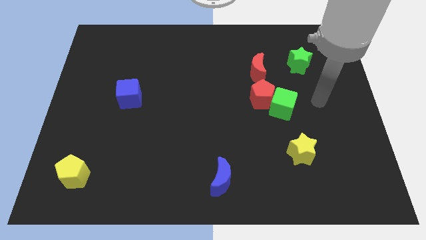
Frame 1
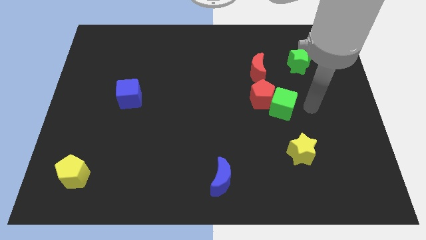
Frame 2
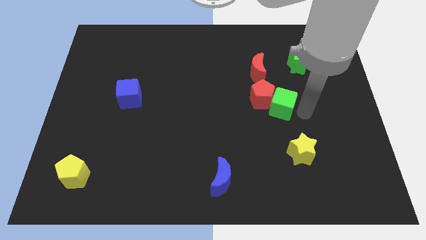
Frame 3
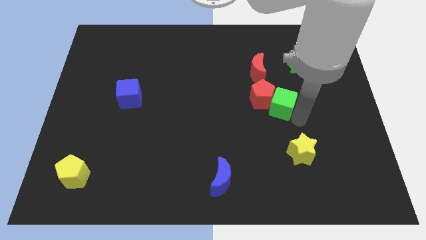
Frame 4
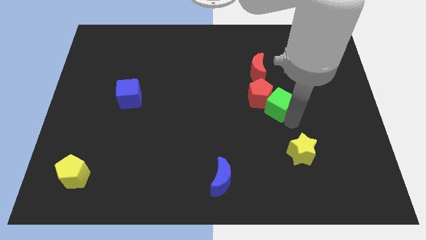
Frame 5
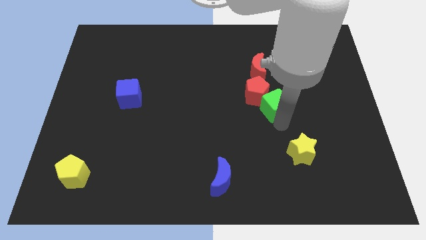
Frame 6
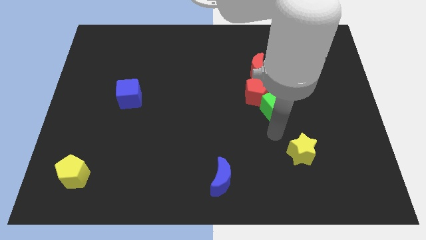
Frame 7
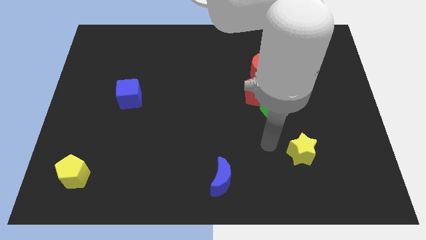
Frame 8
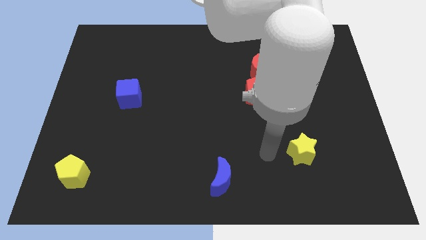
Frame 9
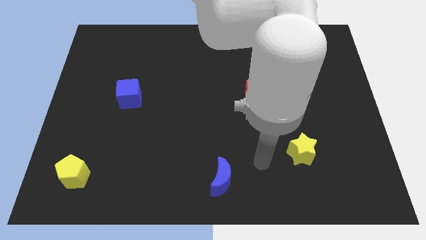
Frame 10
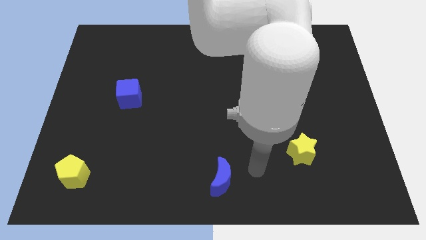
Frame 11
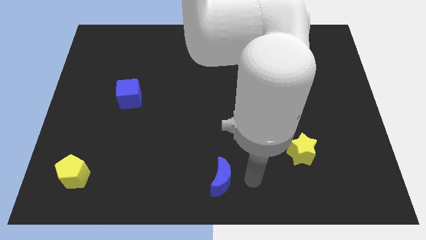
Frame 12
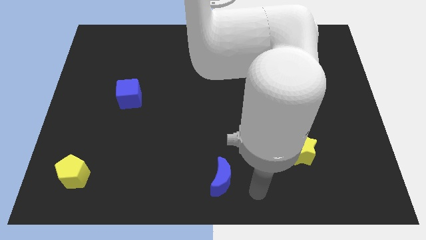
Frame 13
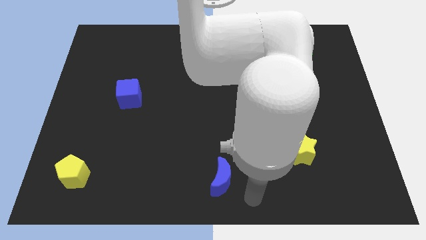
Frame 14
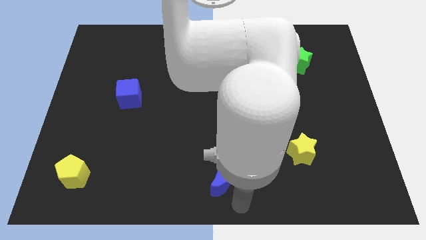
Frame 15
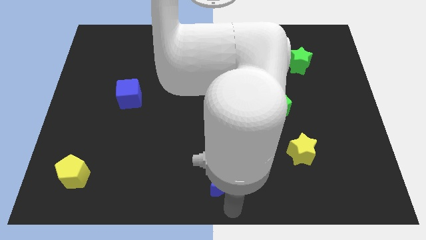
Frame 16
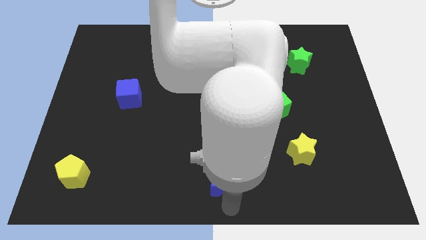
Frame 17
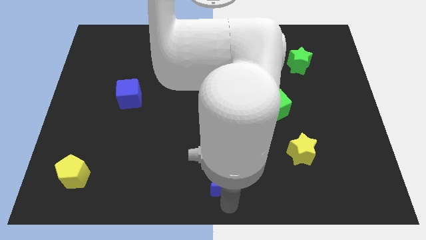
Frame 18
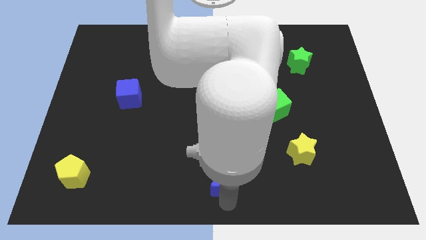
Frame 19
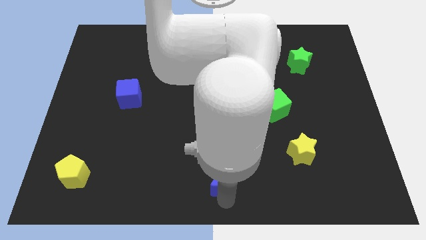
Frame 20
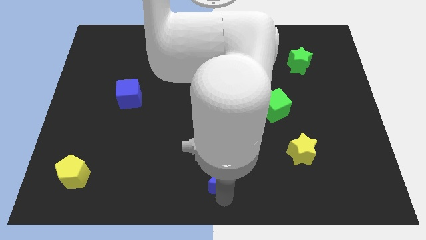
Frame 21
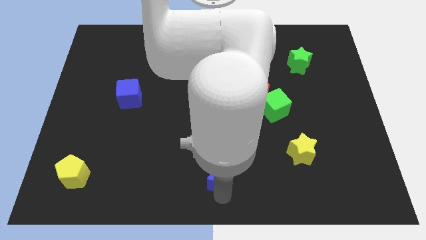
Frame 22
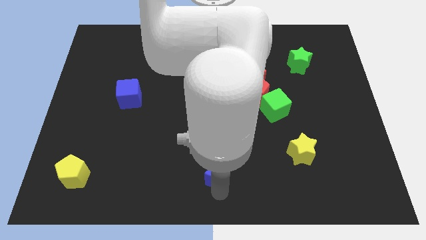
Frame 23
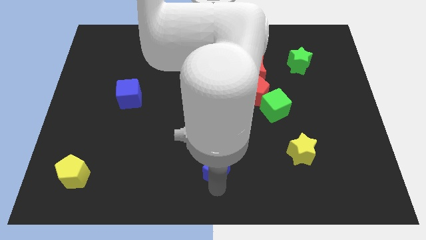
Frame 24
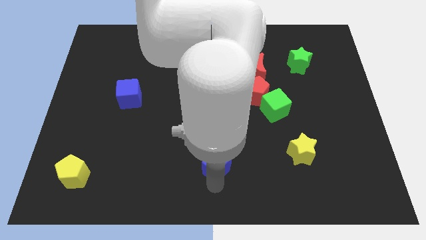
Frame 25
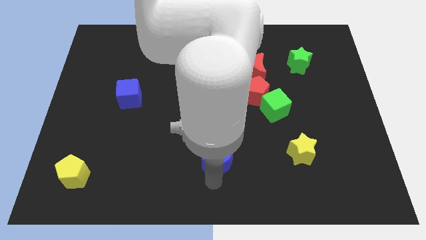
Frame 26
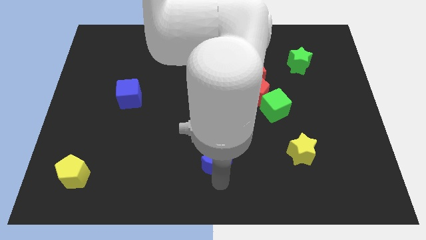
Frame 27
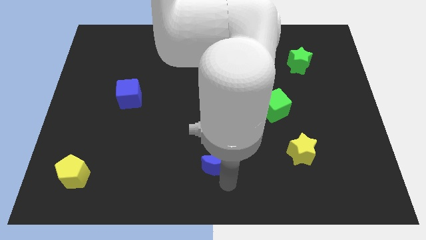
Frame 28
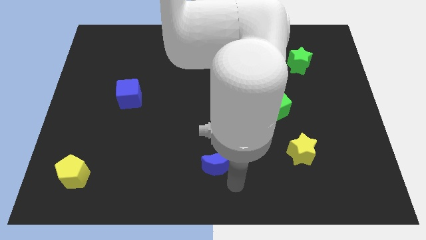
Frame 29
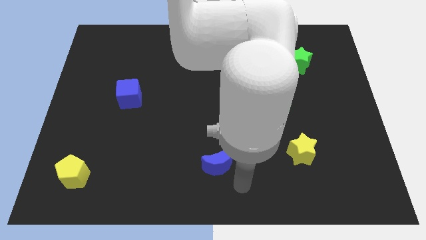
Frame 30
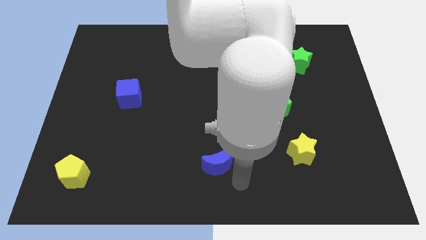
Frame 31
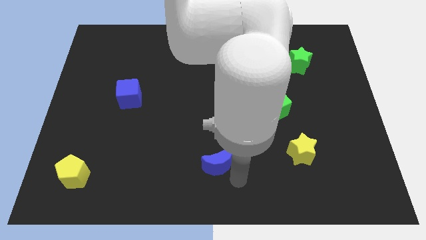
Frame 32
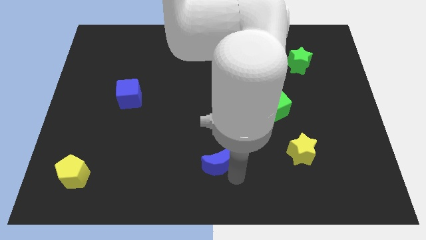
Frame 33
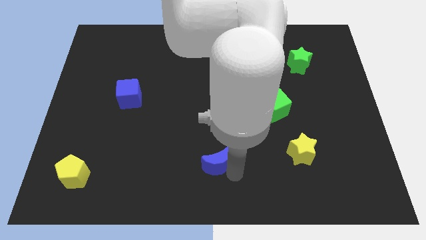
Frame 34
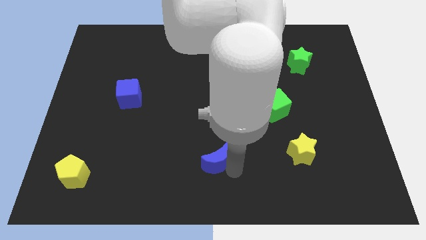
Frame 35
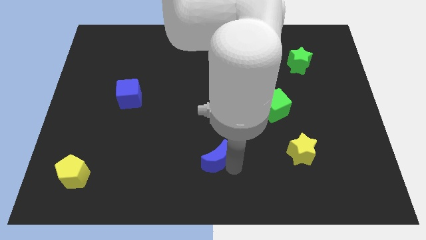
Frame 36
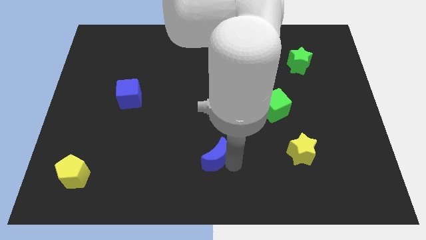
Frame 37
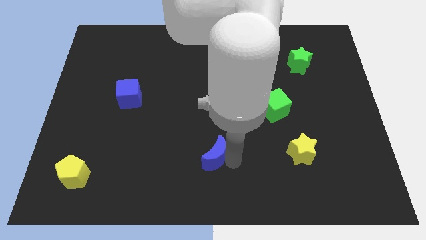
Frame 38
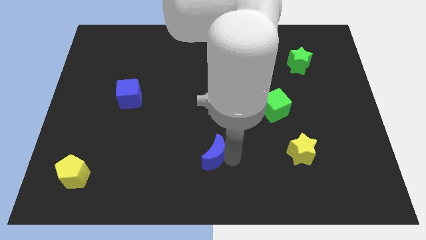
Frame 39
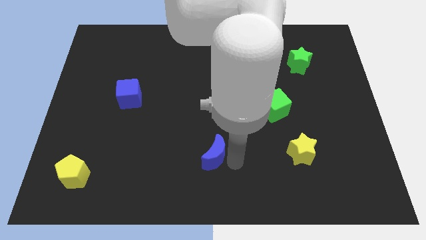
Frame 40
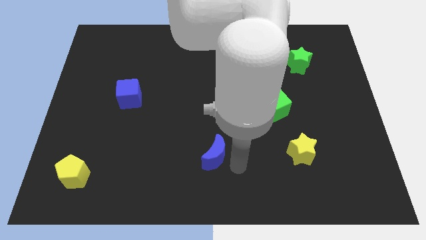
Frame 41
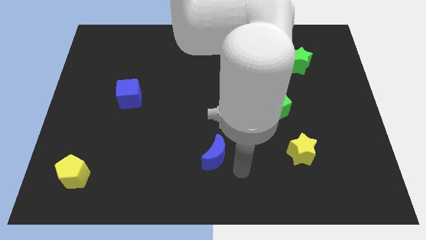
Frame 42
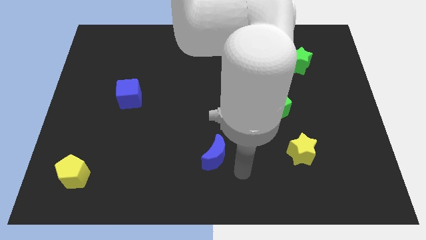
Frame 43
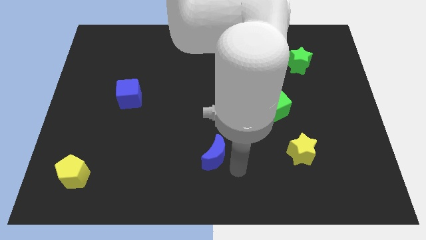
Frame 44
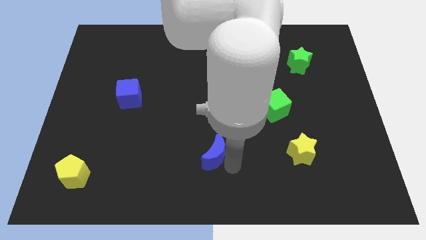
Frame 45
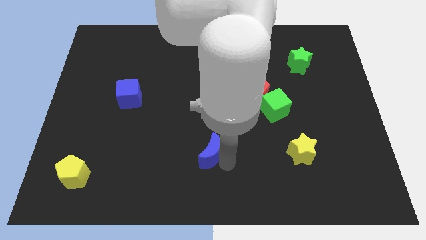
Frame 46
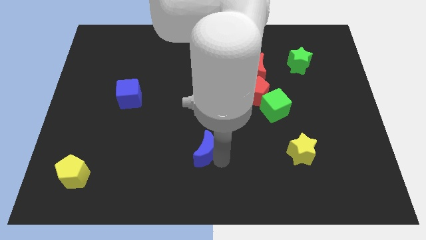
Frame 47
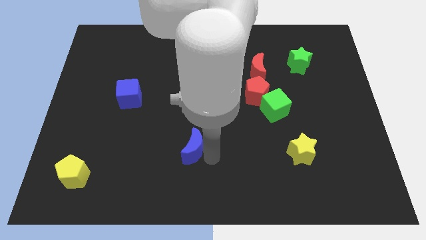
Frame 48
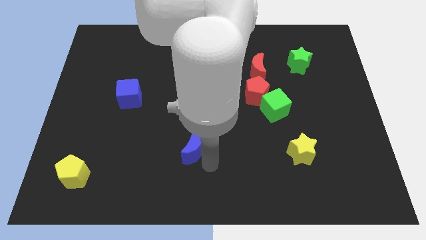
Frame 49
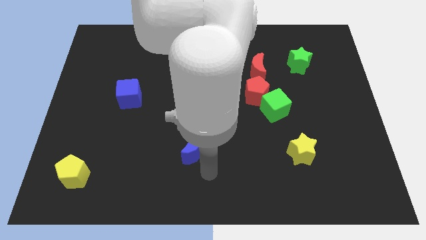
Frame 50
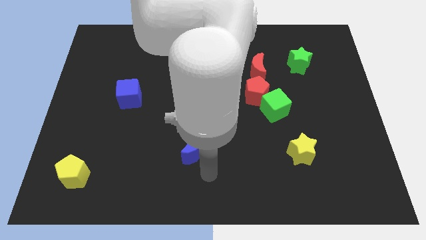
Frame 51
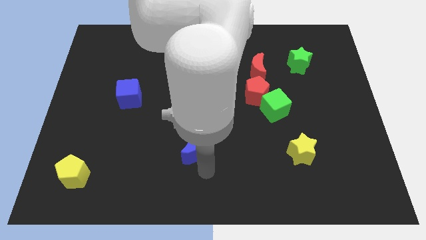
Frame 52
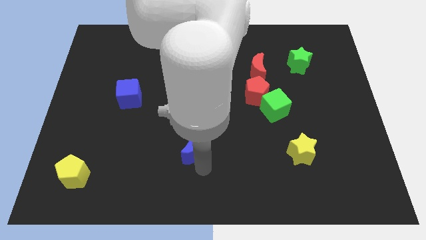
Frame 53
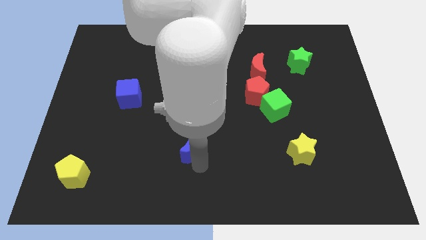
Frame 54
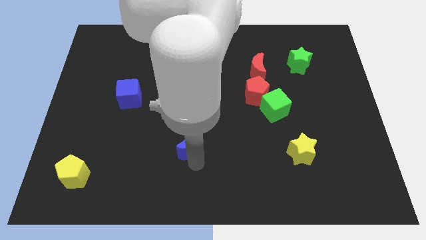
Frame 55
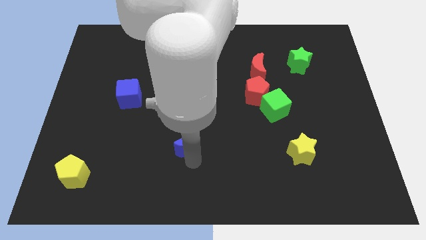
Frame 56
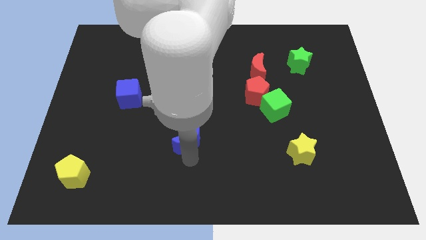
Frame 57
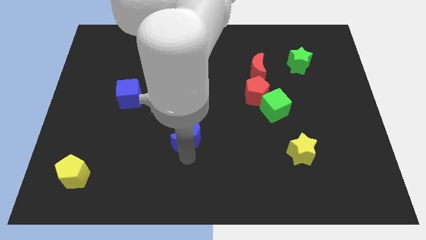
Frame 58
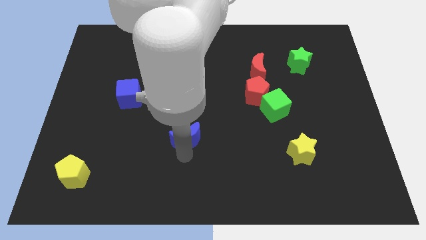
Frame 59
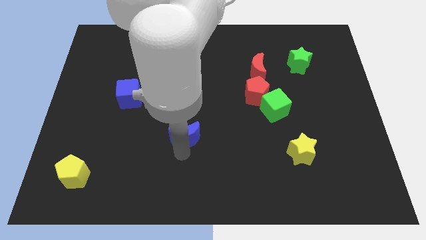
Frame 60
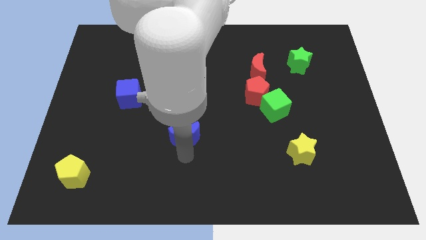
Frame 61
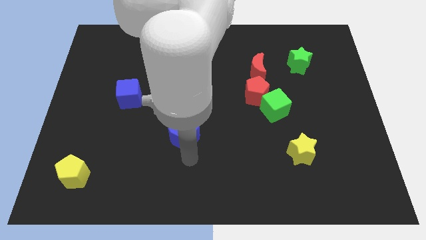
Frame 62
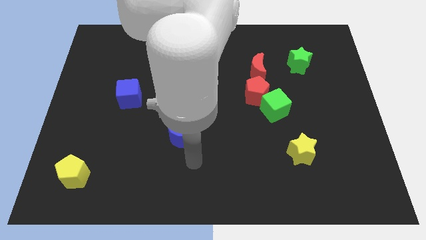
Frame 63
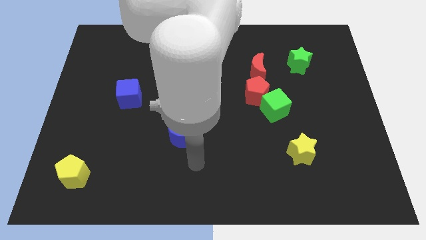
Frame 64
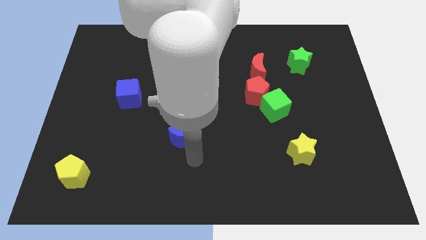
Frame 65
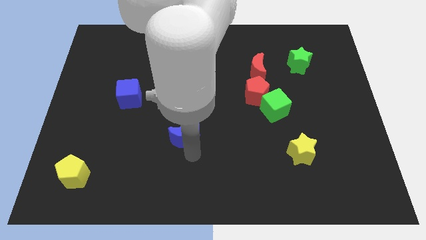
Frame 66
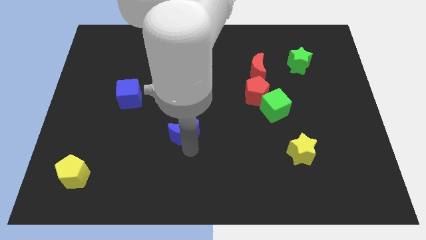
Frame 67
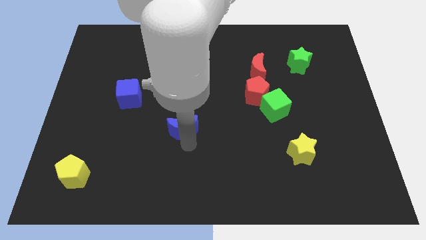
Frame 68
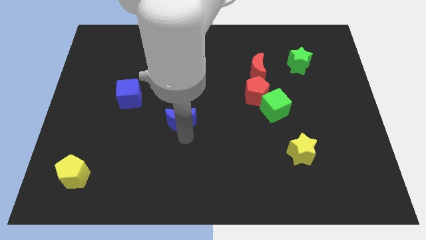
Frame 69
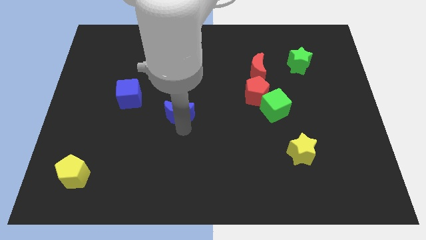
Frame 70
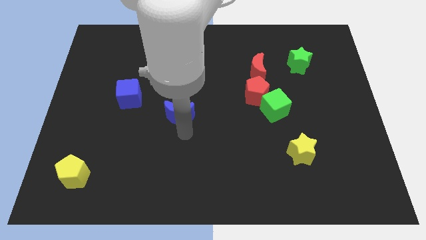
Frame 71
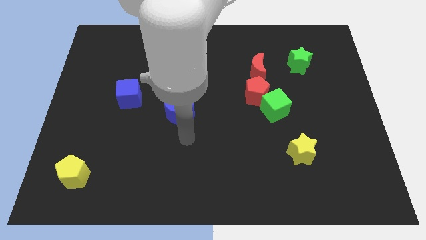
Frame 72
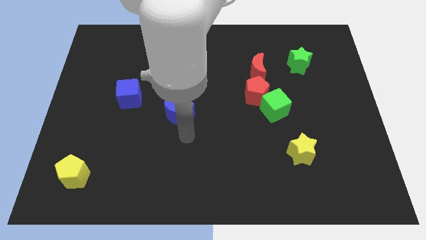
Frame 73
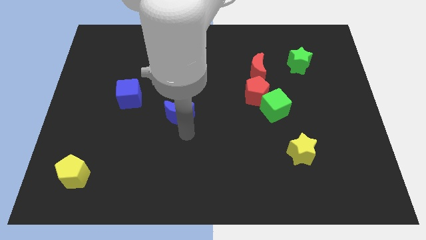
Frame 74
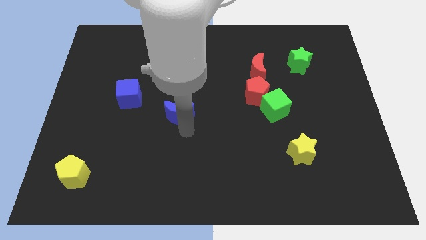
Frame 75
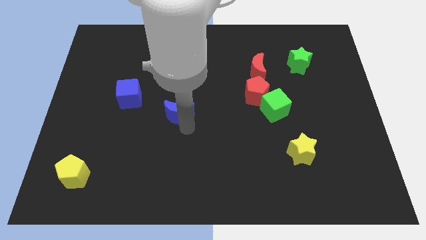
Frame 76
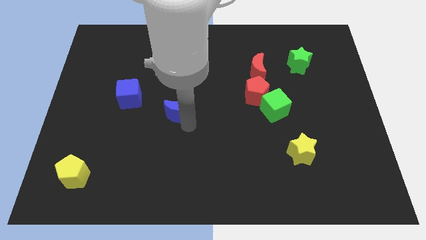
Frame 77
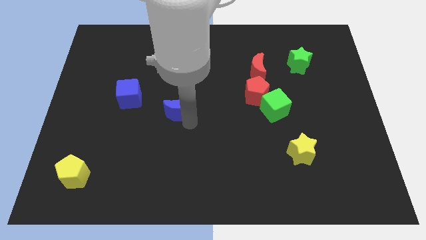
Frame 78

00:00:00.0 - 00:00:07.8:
move the blue moon to the right of the blue cube
